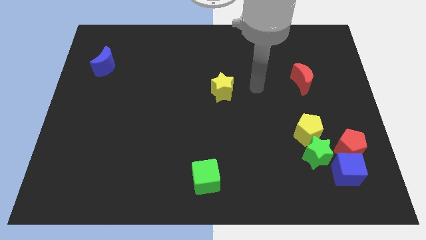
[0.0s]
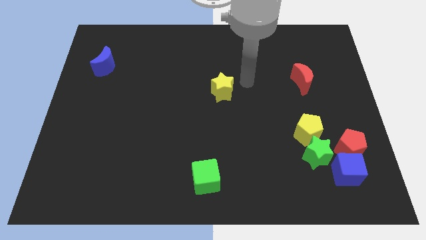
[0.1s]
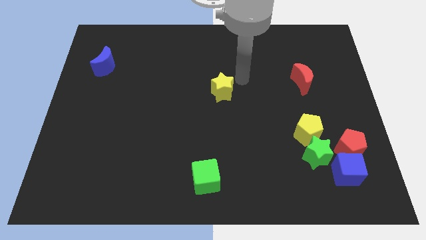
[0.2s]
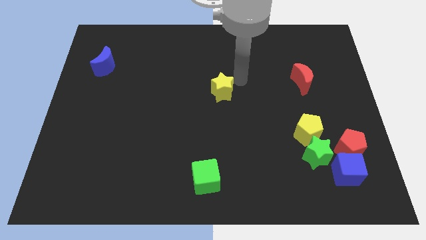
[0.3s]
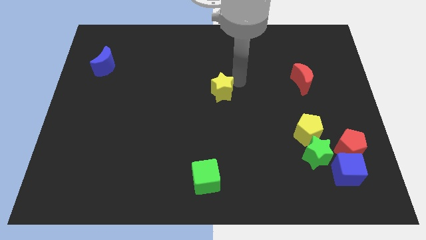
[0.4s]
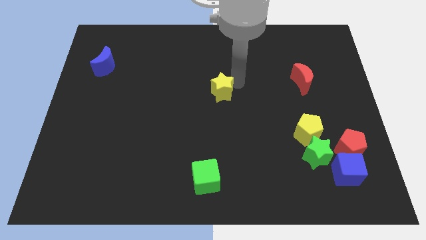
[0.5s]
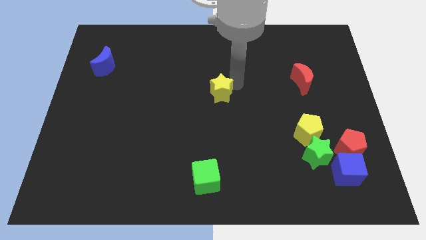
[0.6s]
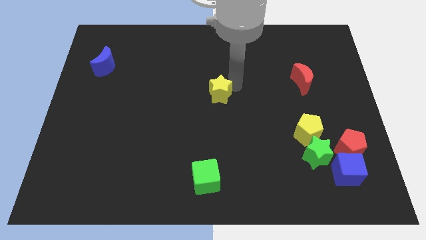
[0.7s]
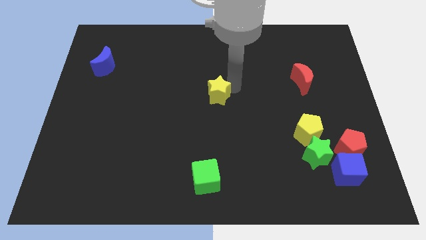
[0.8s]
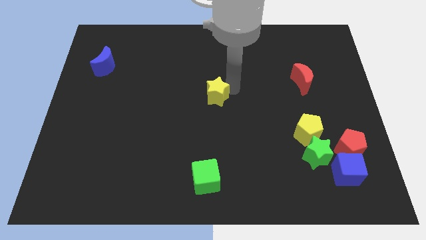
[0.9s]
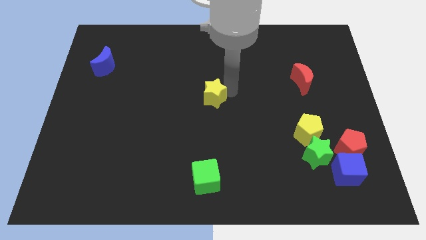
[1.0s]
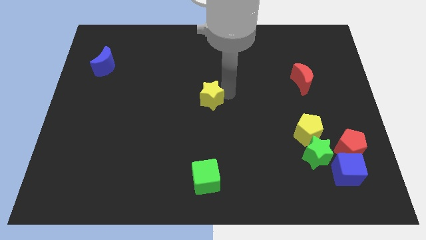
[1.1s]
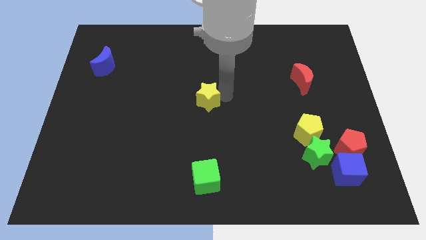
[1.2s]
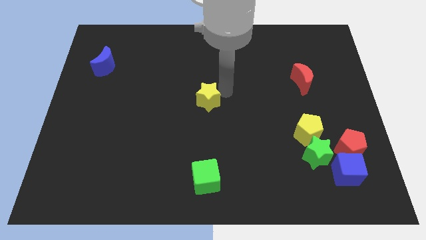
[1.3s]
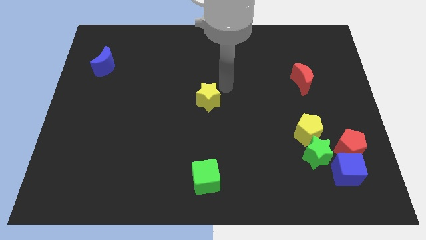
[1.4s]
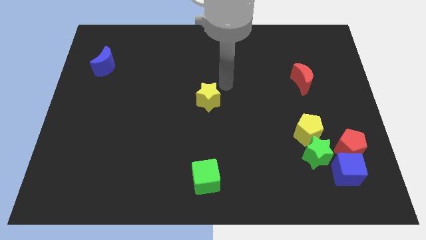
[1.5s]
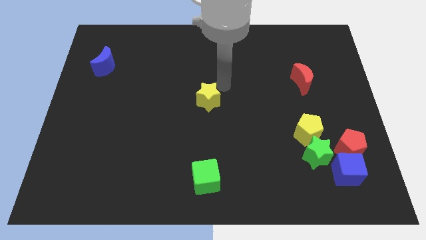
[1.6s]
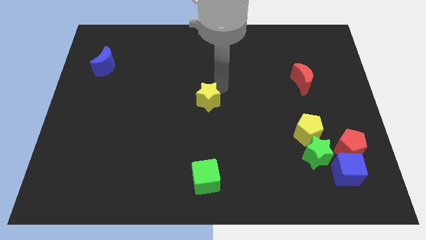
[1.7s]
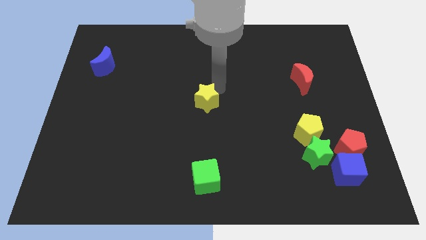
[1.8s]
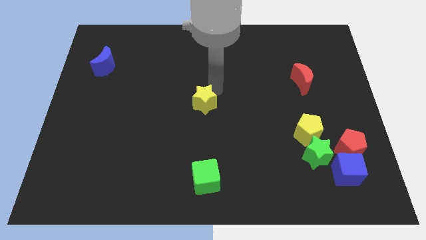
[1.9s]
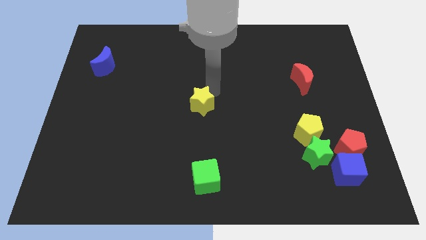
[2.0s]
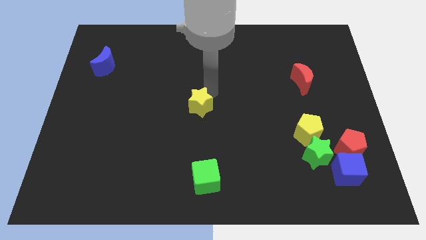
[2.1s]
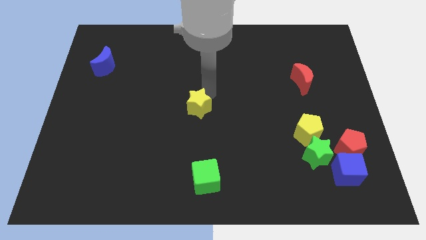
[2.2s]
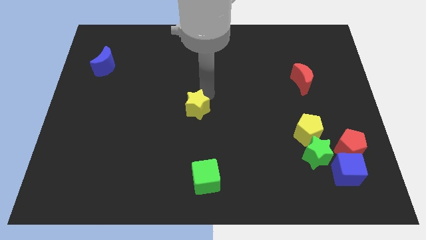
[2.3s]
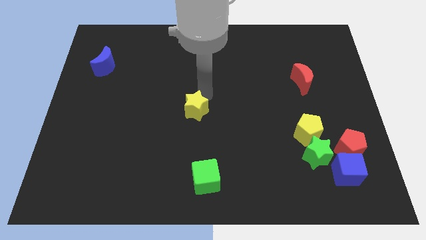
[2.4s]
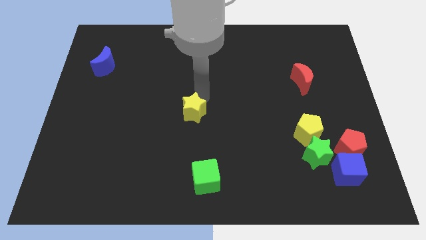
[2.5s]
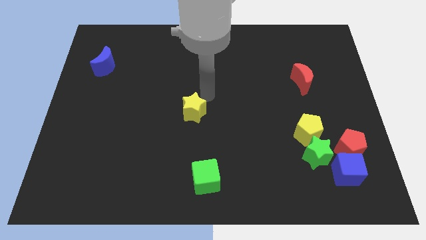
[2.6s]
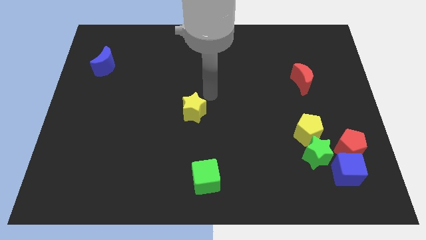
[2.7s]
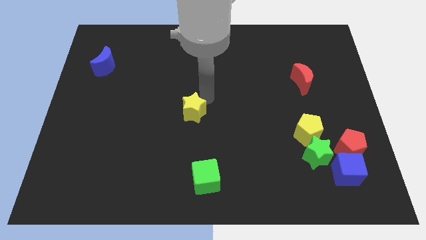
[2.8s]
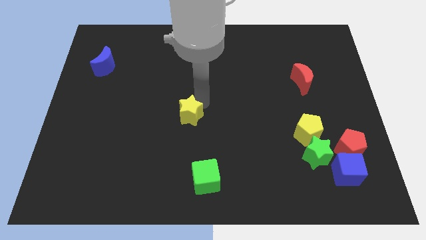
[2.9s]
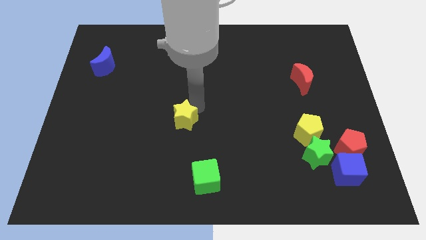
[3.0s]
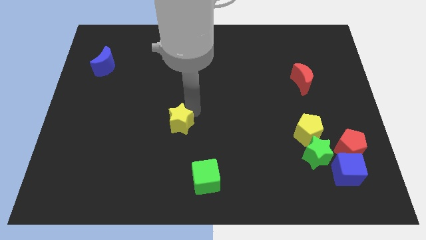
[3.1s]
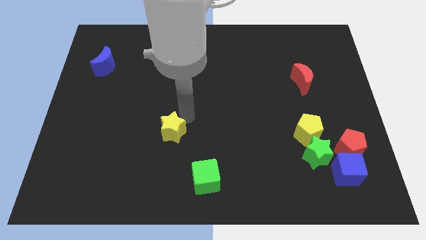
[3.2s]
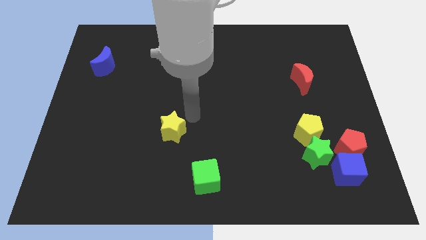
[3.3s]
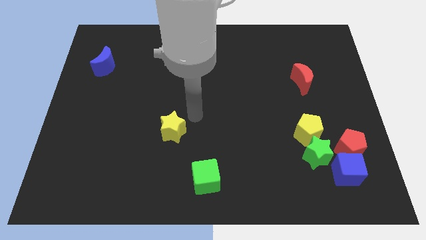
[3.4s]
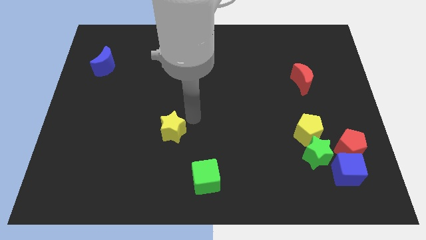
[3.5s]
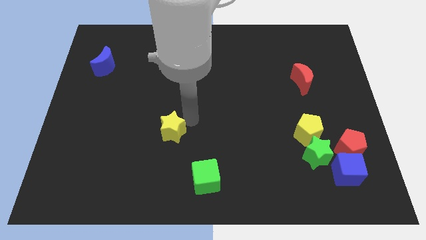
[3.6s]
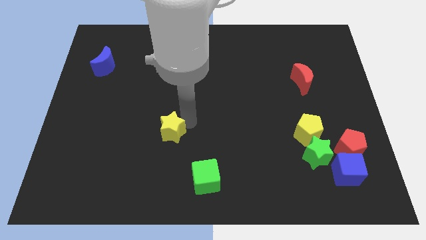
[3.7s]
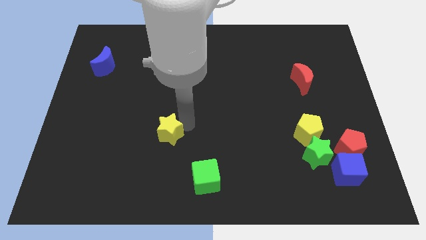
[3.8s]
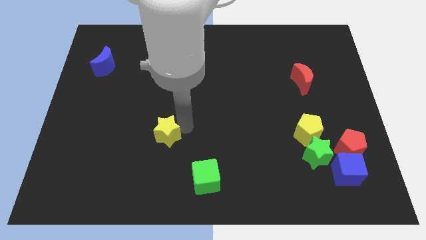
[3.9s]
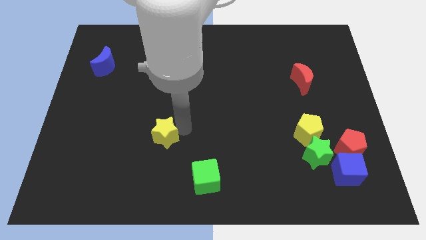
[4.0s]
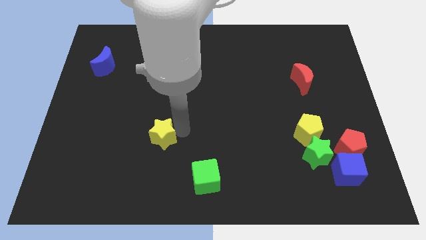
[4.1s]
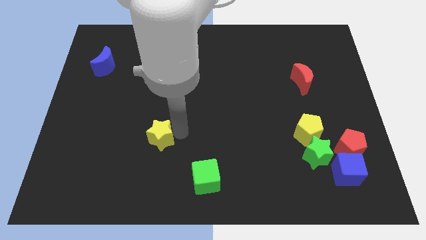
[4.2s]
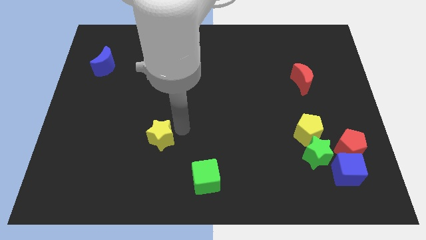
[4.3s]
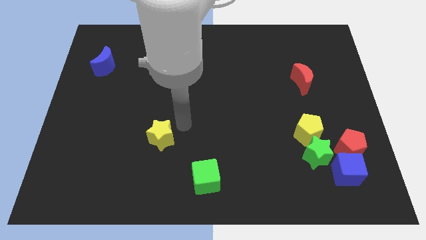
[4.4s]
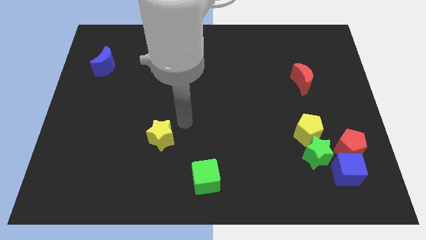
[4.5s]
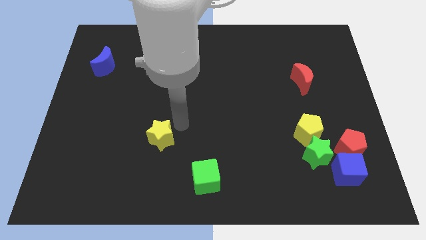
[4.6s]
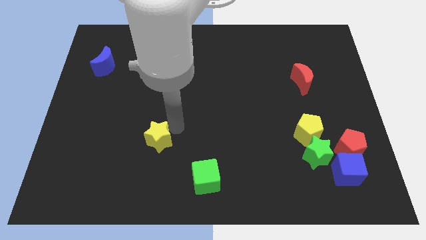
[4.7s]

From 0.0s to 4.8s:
slide the yellow star down and then to the left

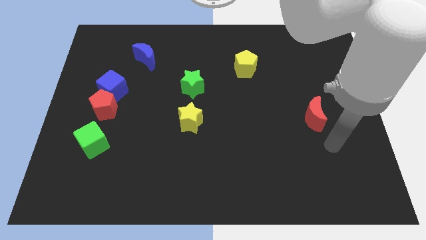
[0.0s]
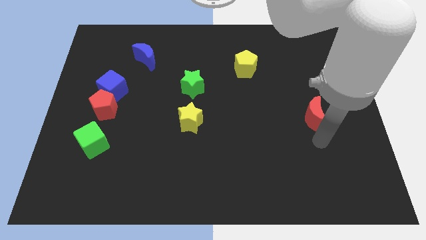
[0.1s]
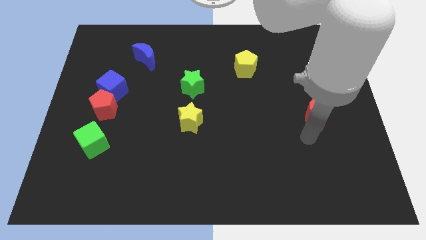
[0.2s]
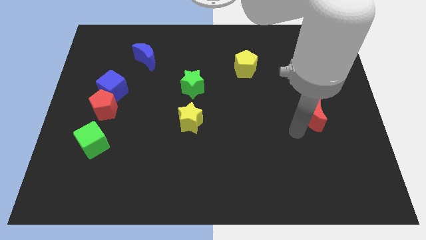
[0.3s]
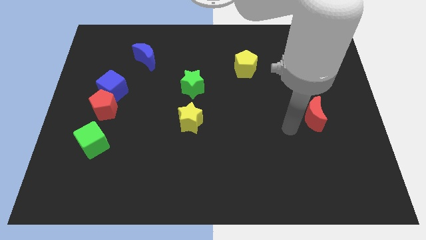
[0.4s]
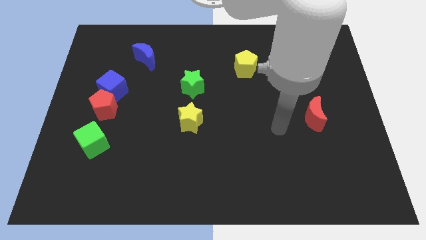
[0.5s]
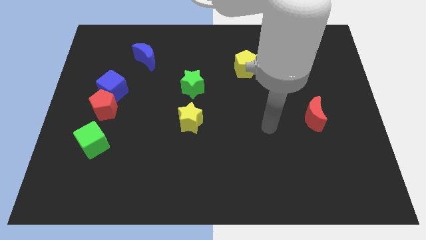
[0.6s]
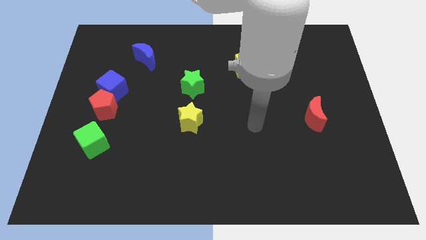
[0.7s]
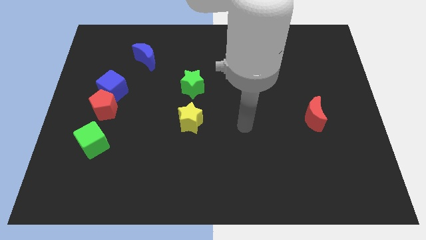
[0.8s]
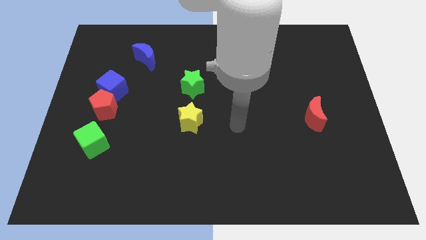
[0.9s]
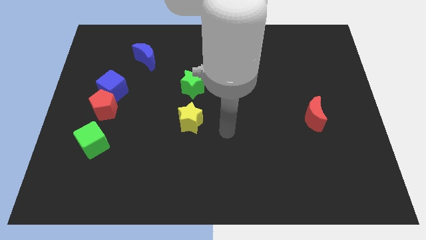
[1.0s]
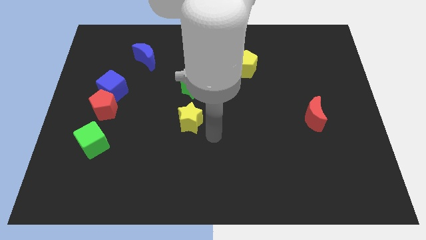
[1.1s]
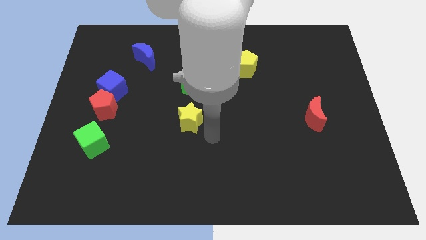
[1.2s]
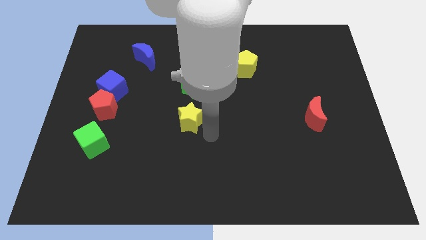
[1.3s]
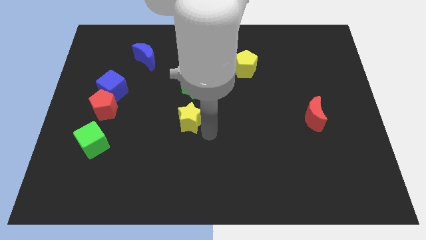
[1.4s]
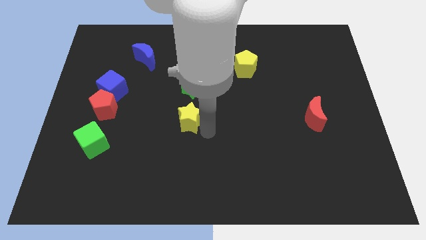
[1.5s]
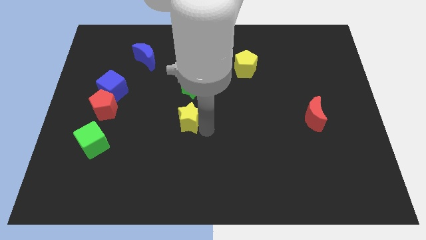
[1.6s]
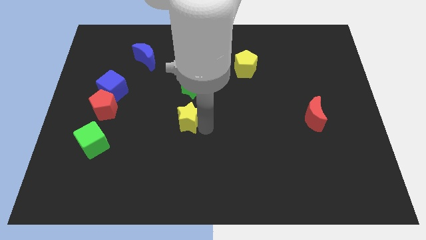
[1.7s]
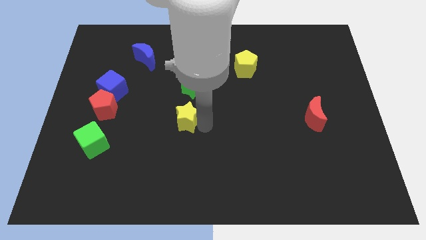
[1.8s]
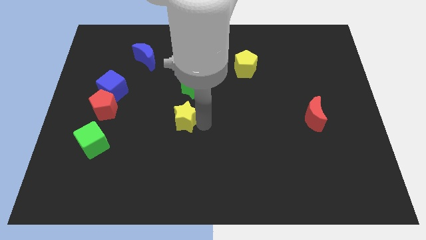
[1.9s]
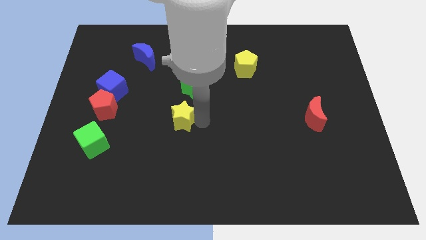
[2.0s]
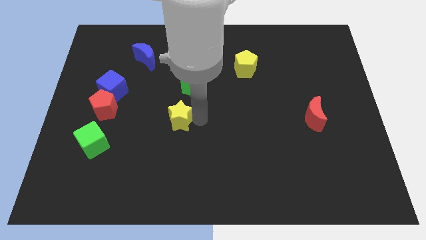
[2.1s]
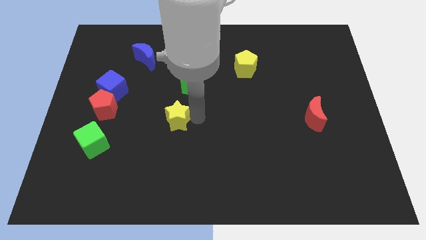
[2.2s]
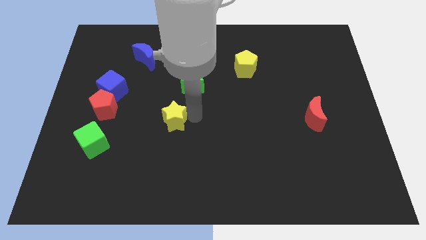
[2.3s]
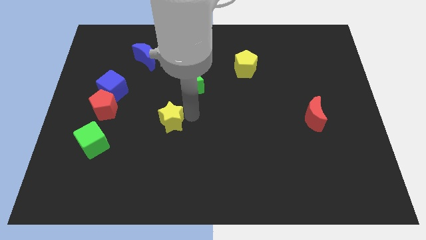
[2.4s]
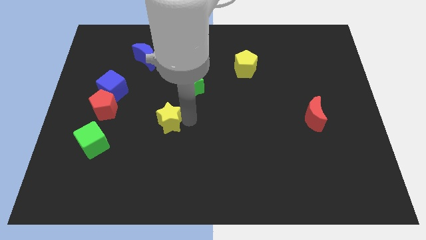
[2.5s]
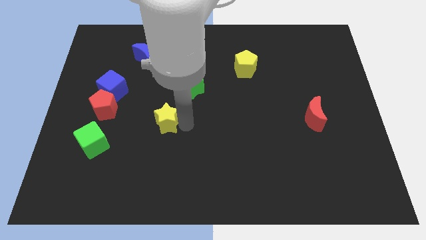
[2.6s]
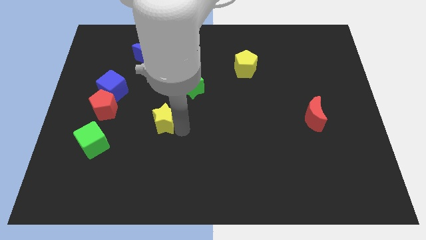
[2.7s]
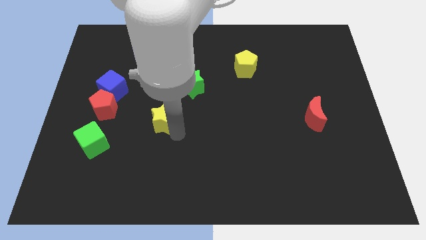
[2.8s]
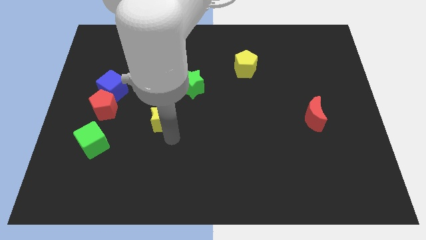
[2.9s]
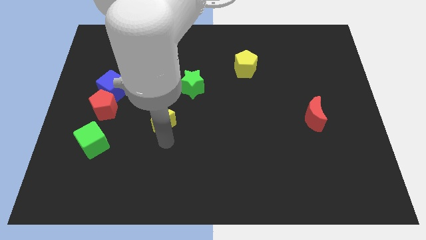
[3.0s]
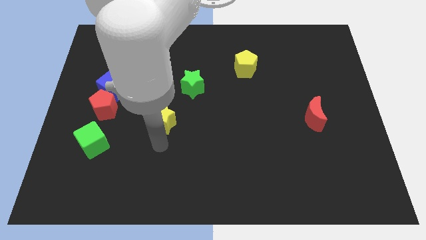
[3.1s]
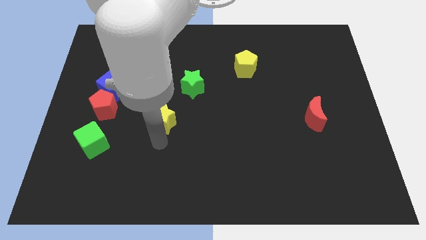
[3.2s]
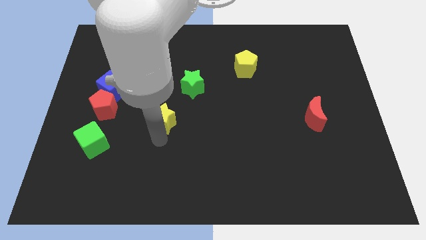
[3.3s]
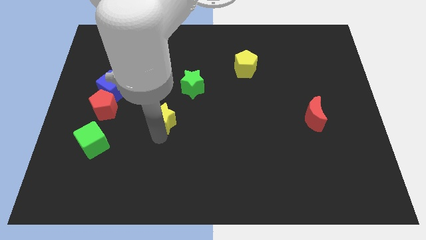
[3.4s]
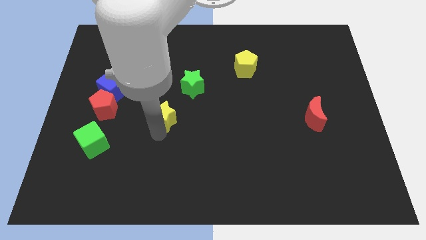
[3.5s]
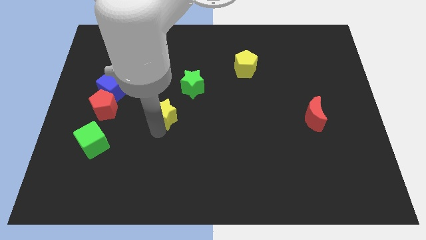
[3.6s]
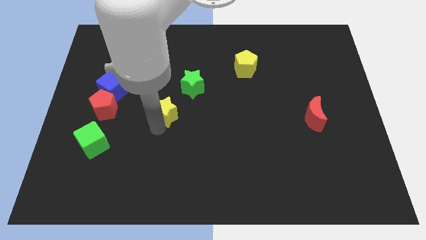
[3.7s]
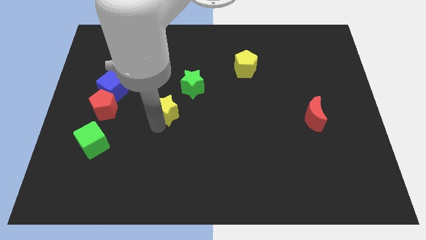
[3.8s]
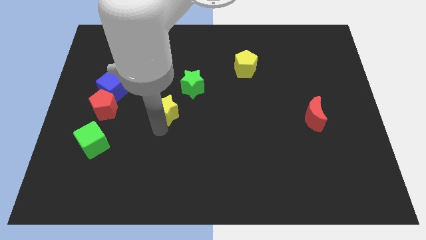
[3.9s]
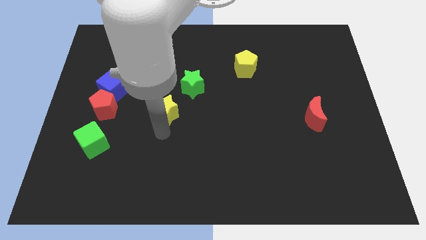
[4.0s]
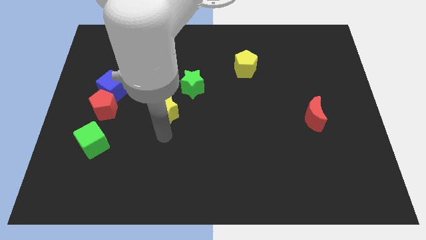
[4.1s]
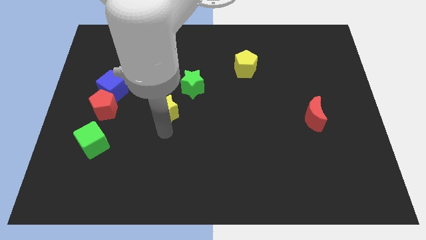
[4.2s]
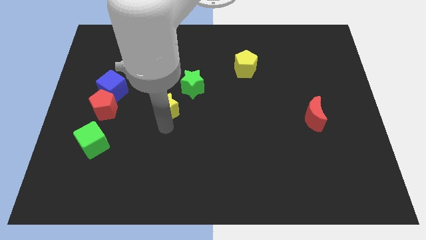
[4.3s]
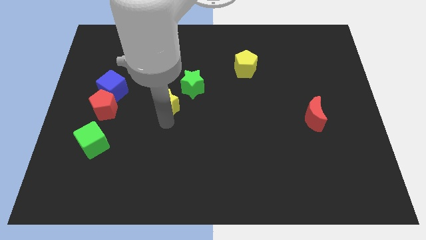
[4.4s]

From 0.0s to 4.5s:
slightly move the yellow star upwards and to the left
